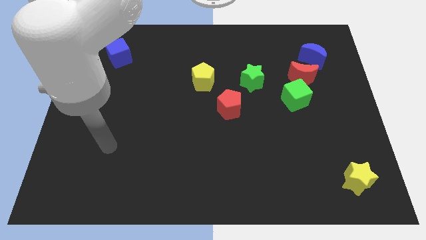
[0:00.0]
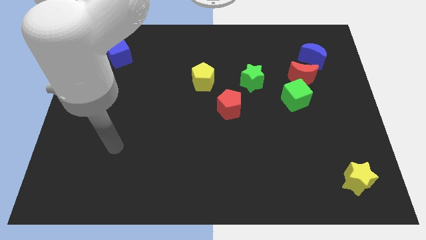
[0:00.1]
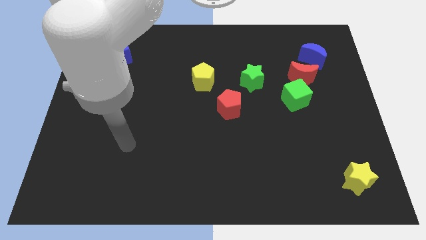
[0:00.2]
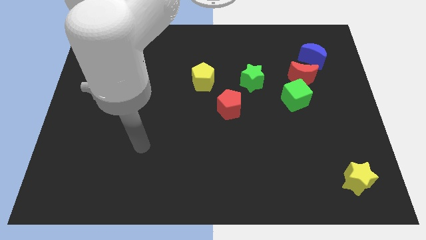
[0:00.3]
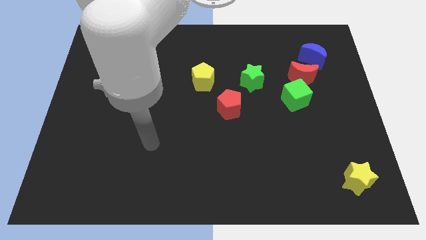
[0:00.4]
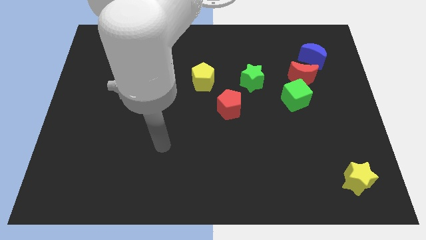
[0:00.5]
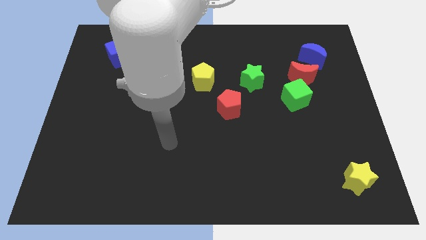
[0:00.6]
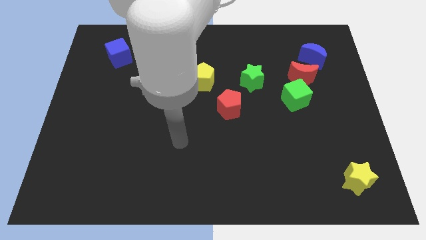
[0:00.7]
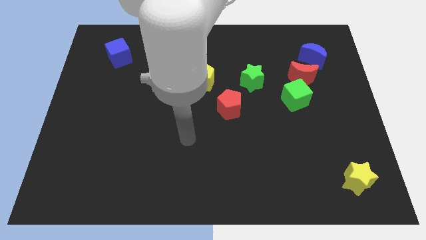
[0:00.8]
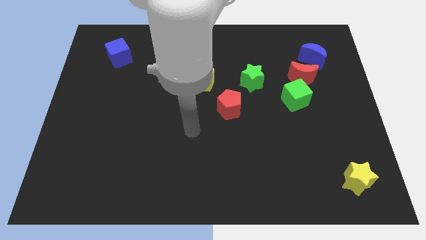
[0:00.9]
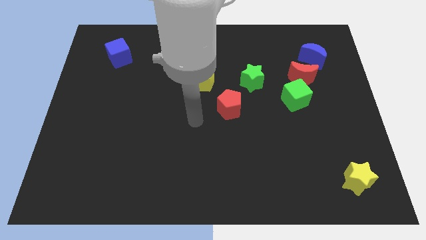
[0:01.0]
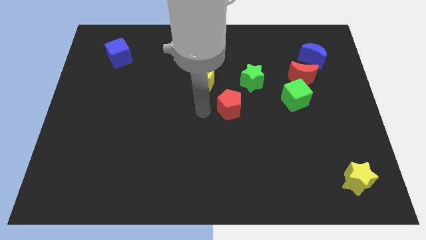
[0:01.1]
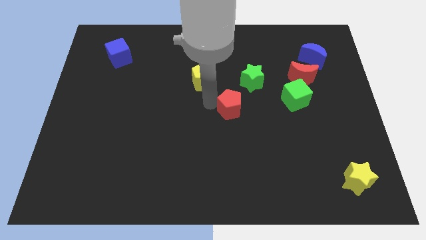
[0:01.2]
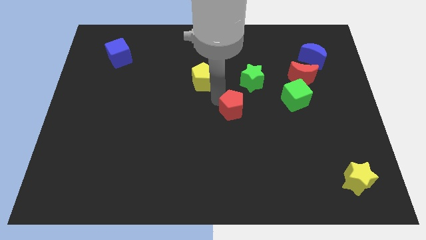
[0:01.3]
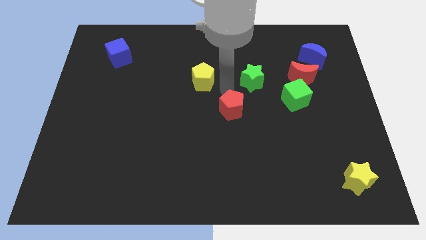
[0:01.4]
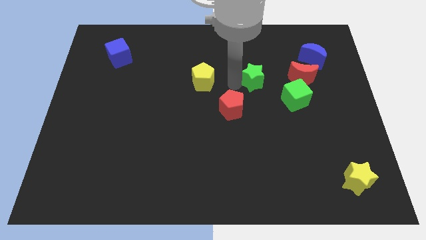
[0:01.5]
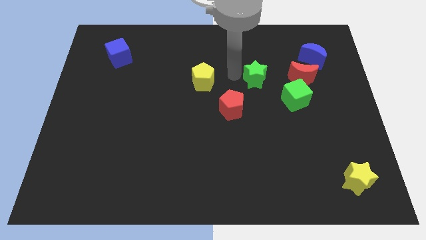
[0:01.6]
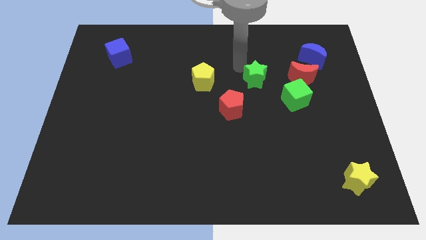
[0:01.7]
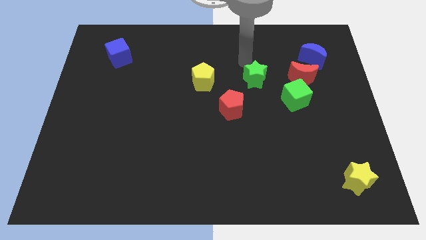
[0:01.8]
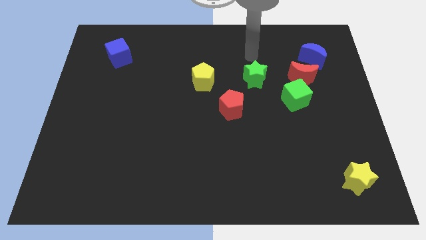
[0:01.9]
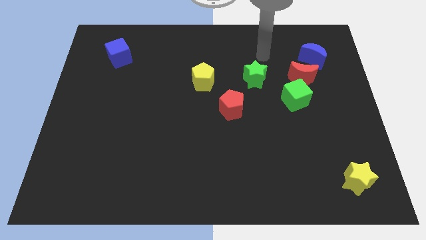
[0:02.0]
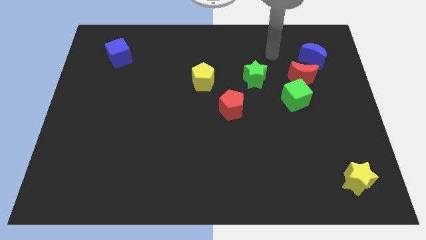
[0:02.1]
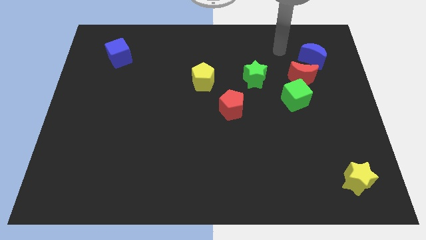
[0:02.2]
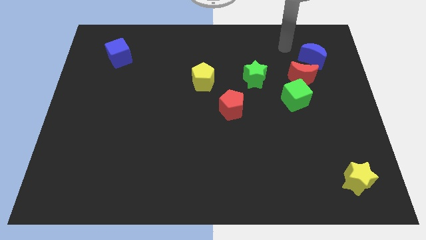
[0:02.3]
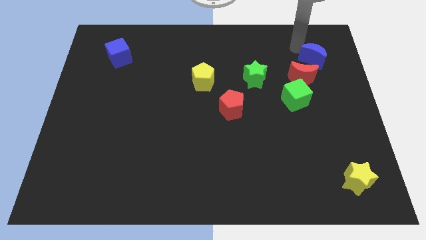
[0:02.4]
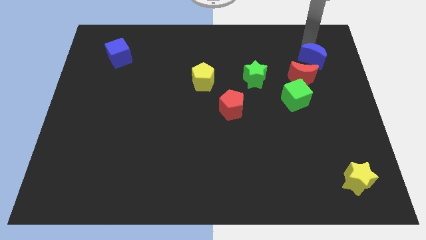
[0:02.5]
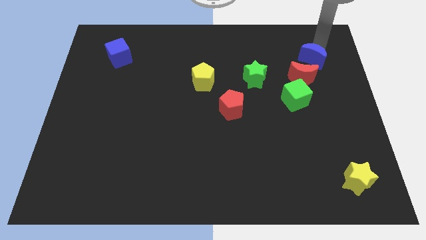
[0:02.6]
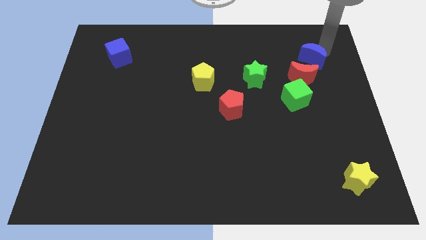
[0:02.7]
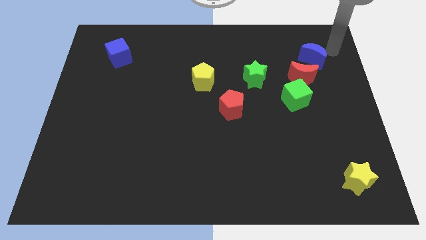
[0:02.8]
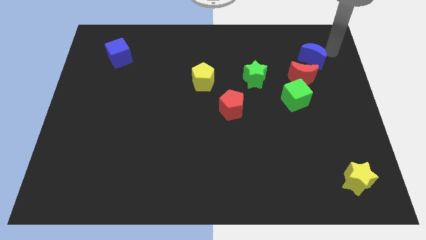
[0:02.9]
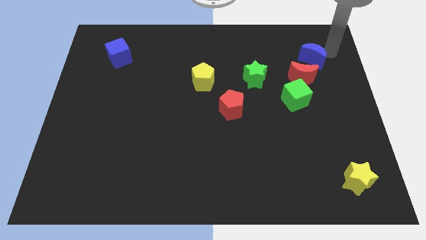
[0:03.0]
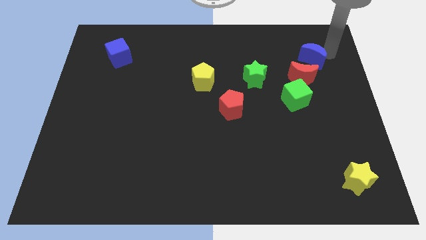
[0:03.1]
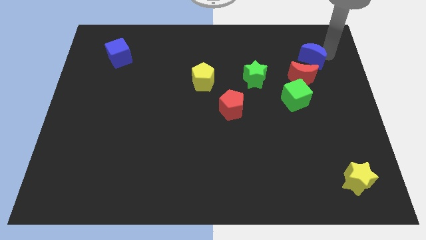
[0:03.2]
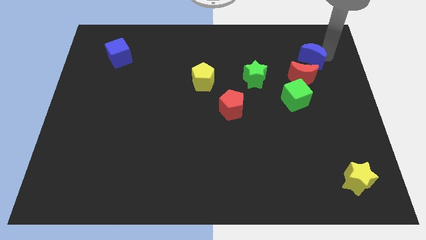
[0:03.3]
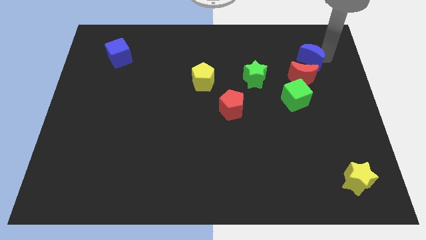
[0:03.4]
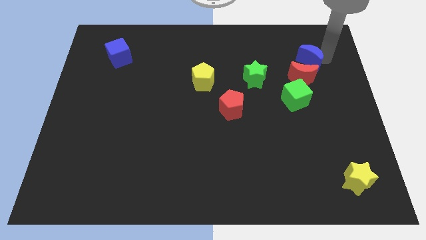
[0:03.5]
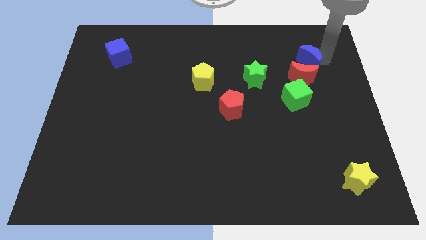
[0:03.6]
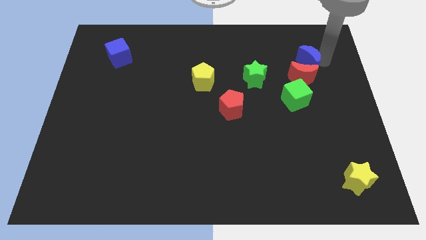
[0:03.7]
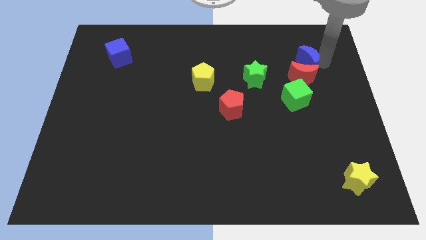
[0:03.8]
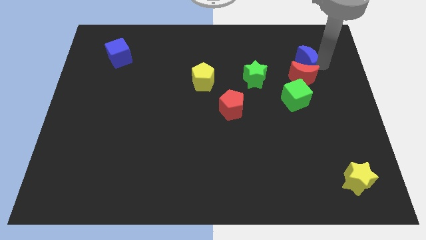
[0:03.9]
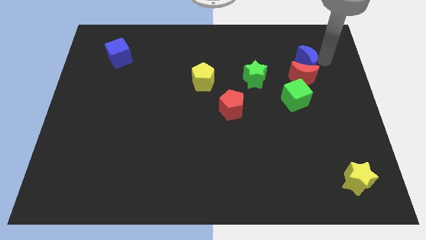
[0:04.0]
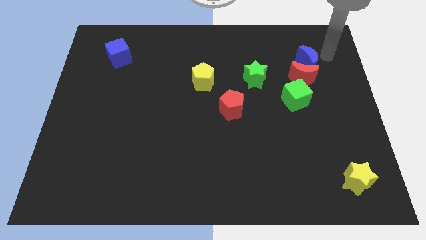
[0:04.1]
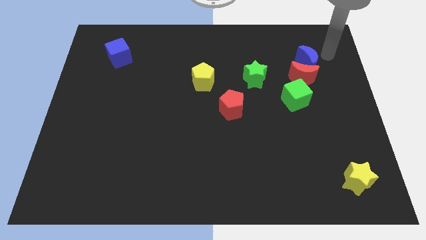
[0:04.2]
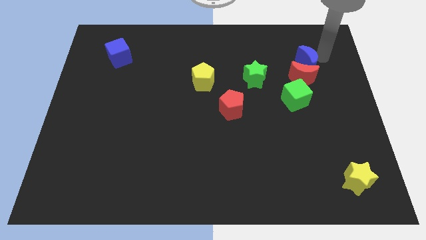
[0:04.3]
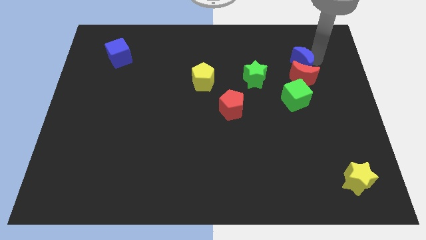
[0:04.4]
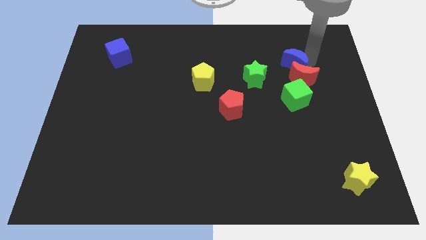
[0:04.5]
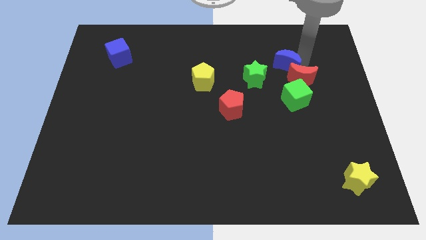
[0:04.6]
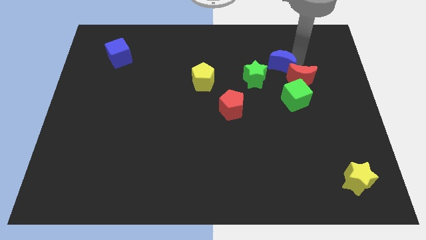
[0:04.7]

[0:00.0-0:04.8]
slide the blue moon a bit diagonally down and to the left

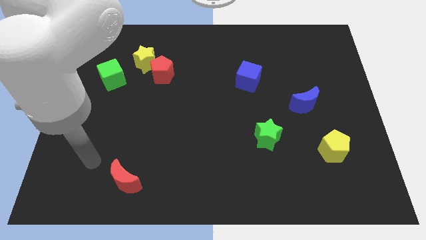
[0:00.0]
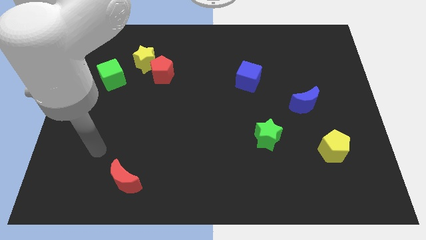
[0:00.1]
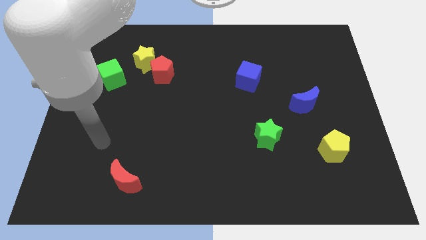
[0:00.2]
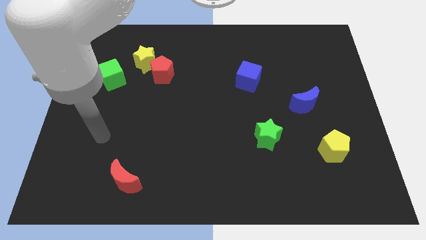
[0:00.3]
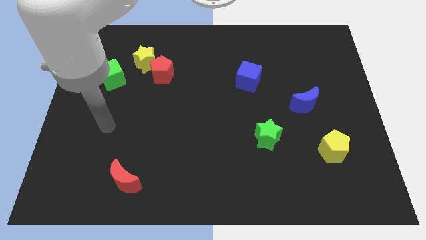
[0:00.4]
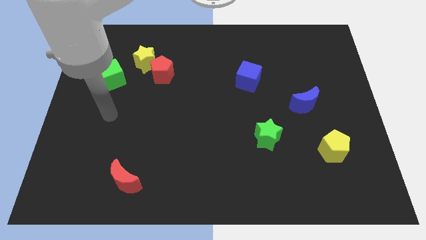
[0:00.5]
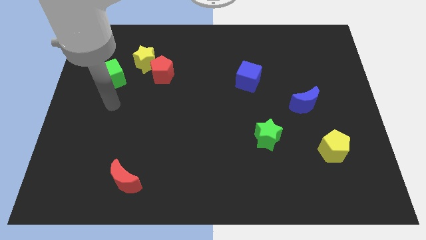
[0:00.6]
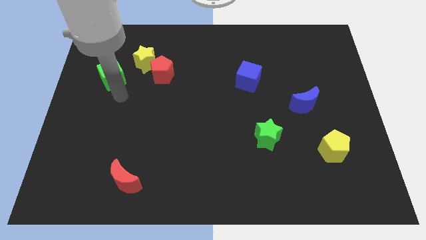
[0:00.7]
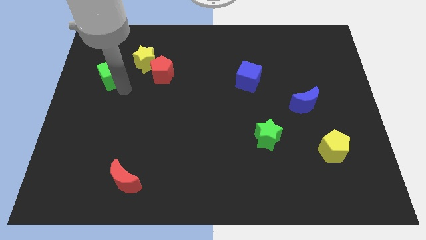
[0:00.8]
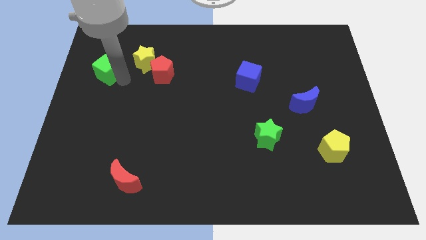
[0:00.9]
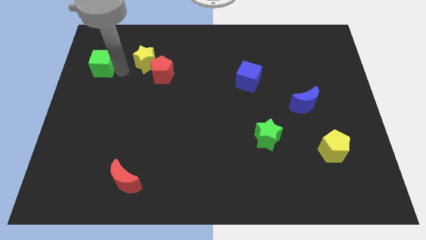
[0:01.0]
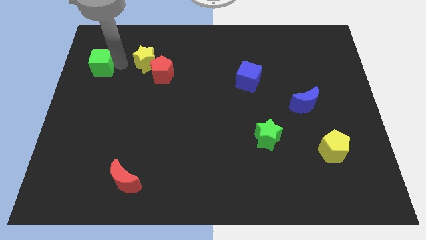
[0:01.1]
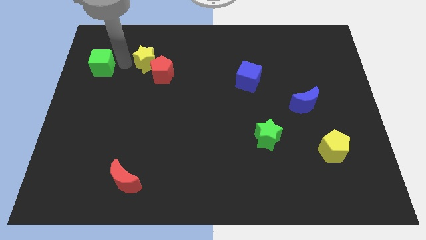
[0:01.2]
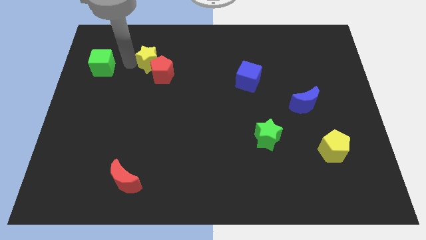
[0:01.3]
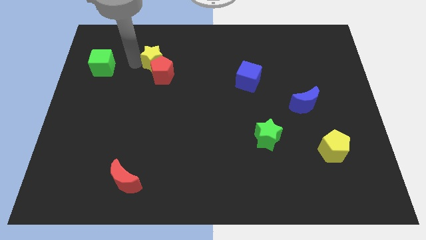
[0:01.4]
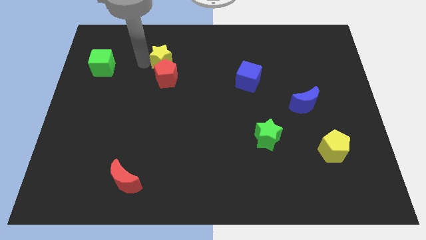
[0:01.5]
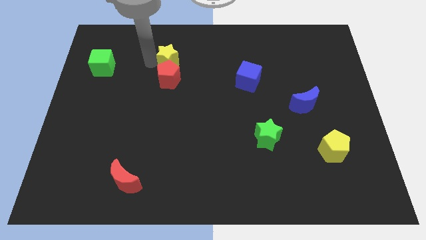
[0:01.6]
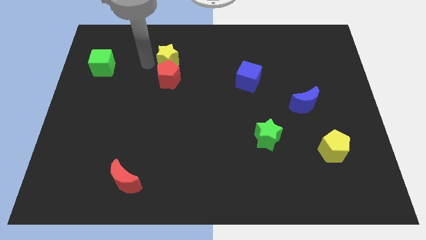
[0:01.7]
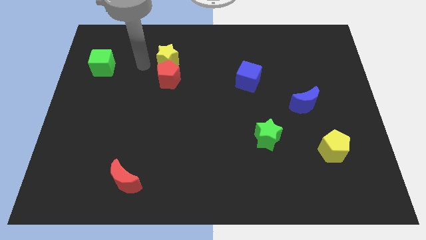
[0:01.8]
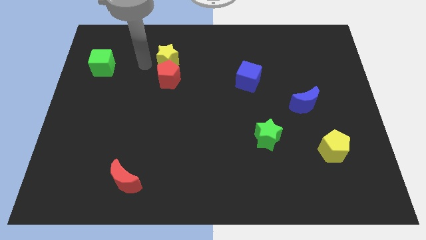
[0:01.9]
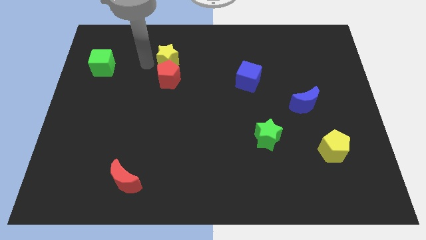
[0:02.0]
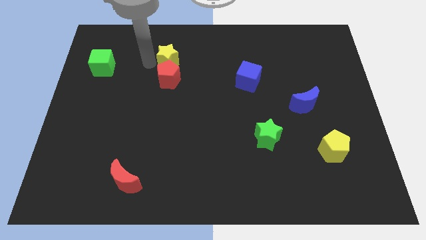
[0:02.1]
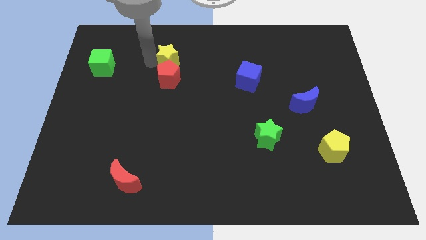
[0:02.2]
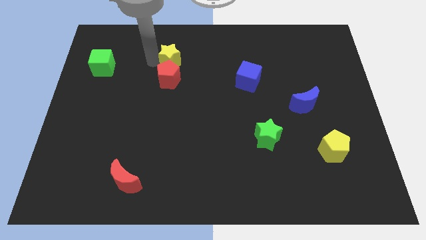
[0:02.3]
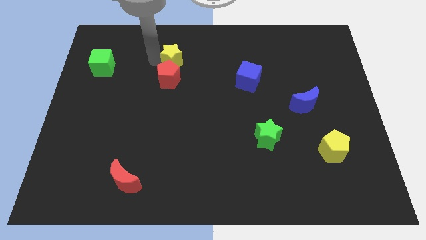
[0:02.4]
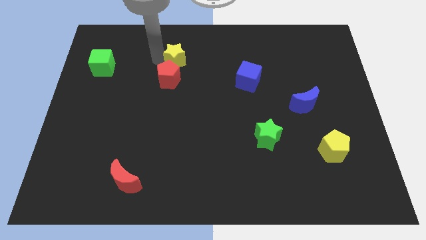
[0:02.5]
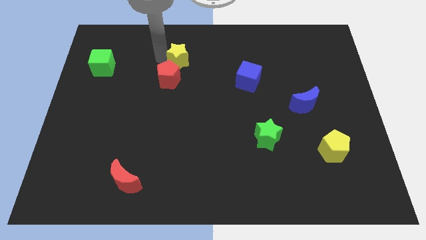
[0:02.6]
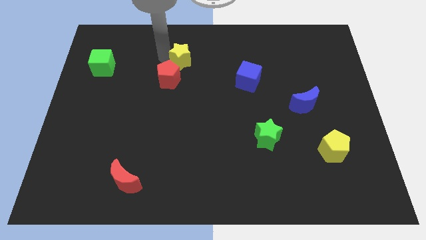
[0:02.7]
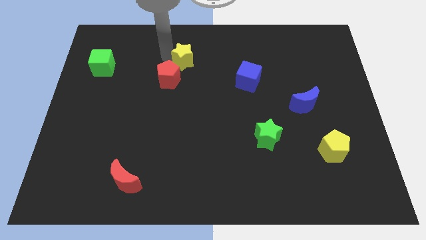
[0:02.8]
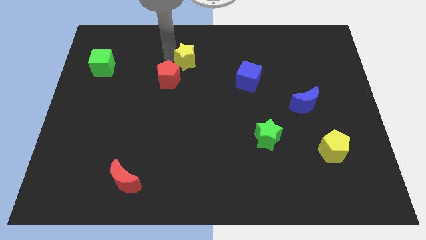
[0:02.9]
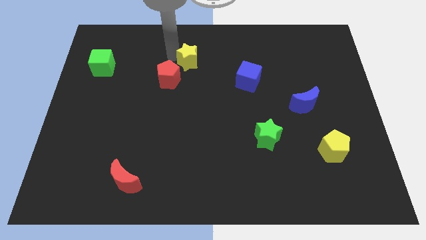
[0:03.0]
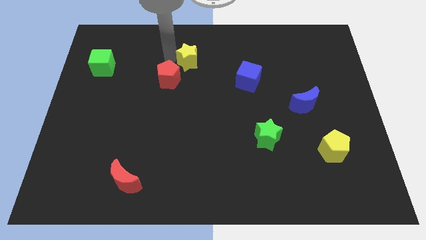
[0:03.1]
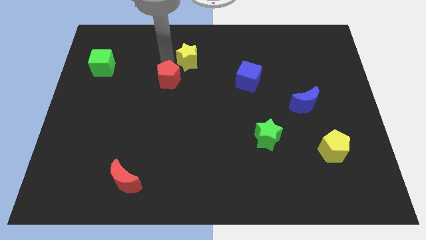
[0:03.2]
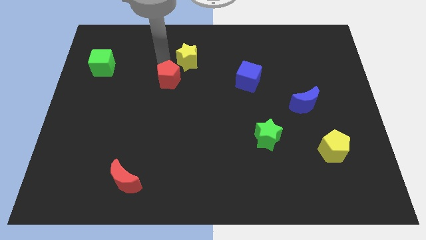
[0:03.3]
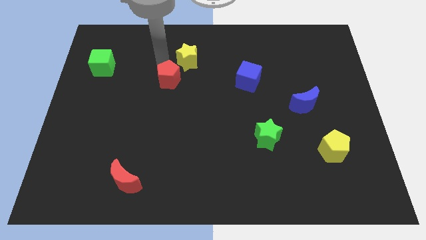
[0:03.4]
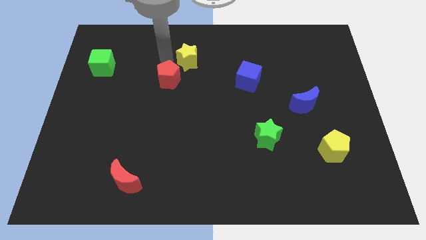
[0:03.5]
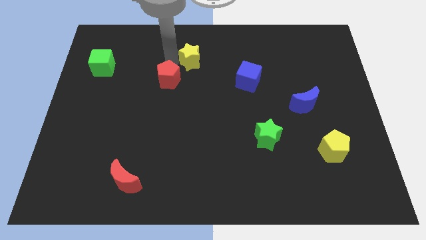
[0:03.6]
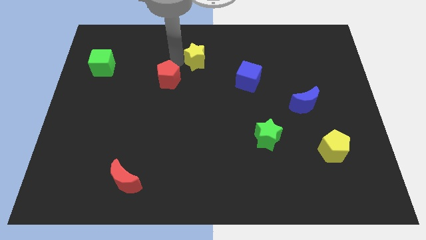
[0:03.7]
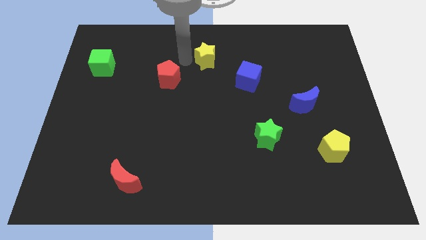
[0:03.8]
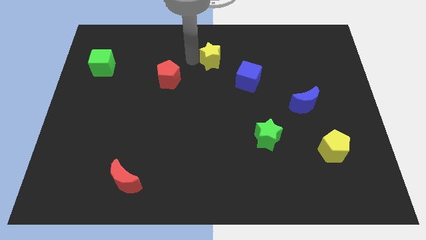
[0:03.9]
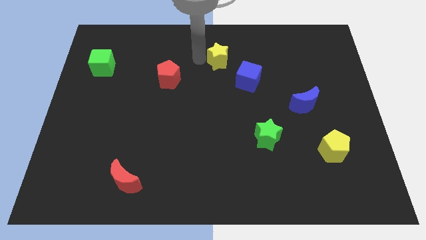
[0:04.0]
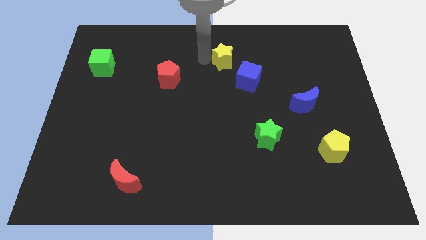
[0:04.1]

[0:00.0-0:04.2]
push the yellow star to the right
